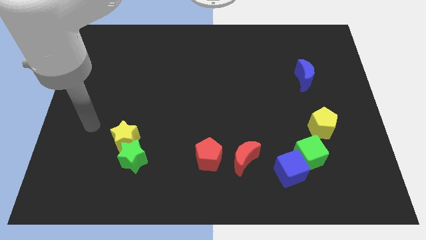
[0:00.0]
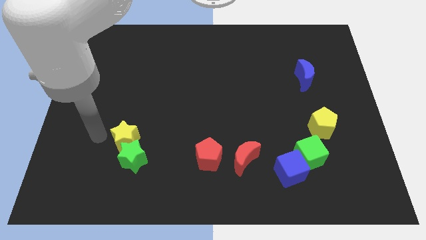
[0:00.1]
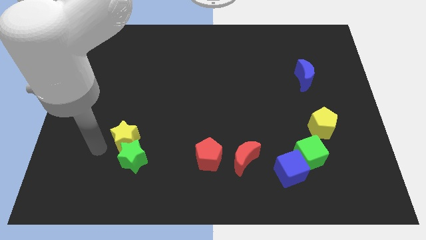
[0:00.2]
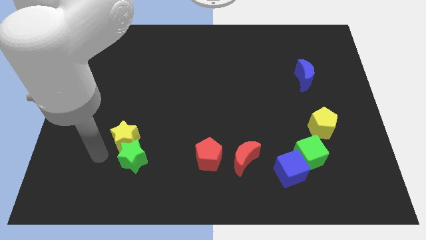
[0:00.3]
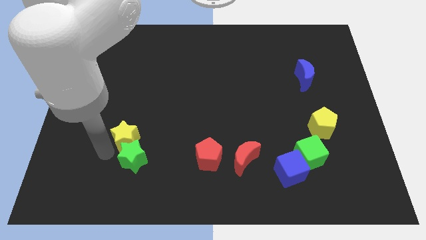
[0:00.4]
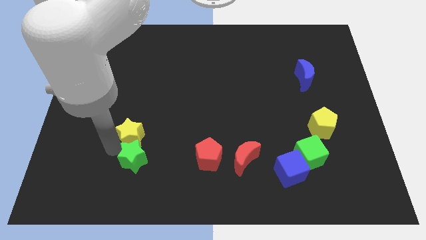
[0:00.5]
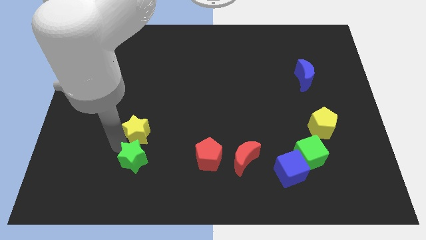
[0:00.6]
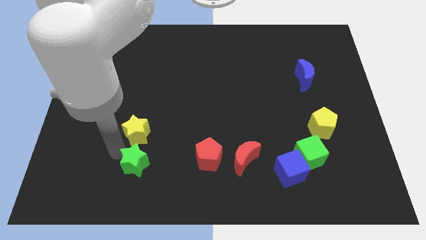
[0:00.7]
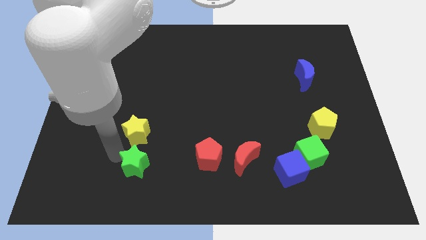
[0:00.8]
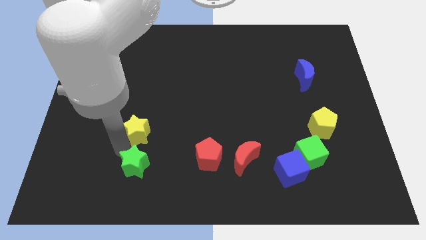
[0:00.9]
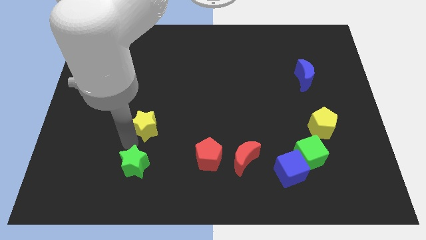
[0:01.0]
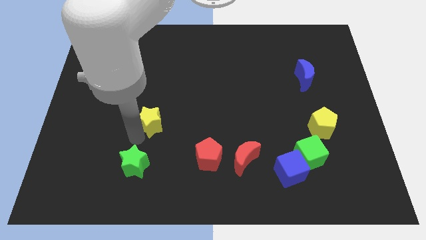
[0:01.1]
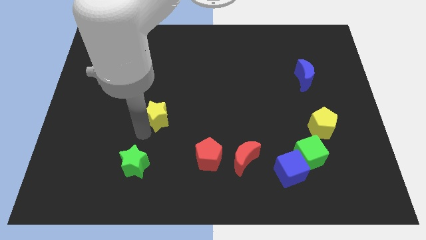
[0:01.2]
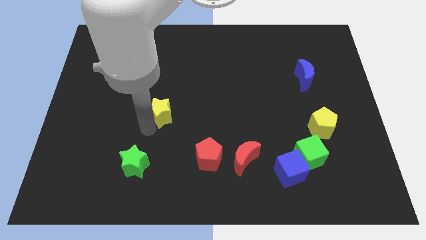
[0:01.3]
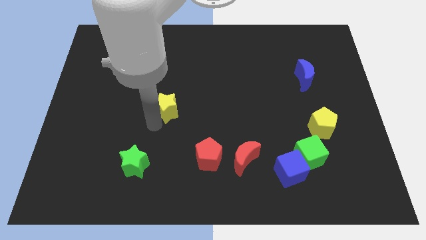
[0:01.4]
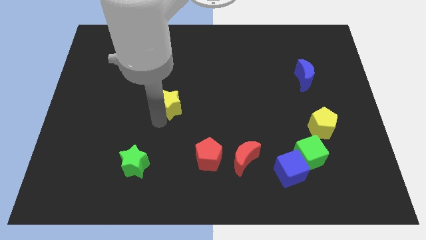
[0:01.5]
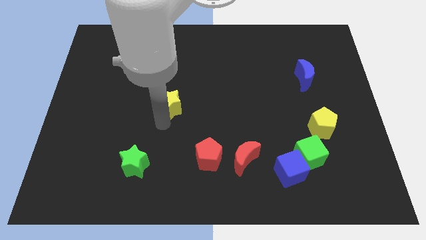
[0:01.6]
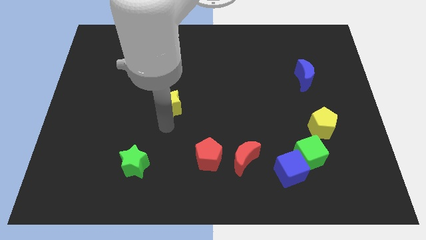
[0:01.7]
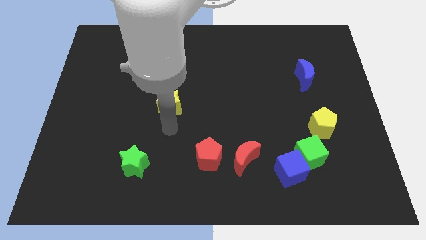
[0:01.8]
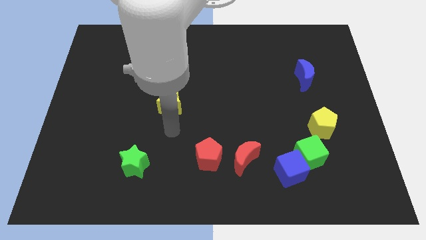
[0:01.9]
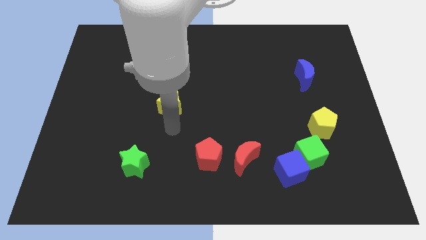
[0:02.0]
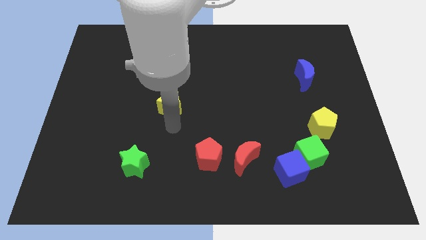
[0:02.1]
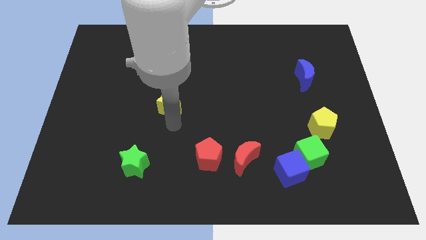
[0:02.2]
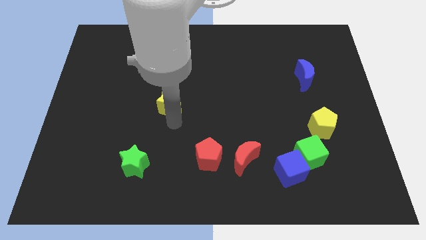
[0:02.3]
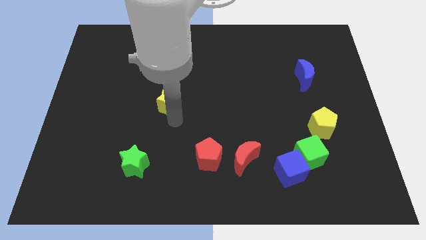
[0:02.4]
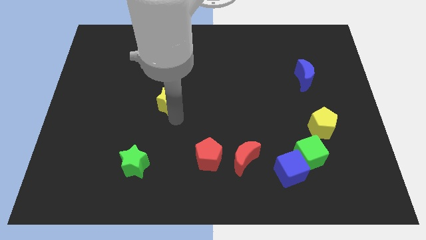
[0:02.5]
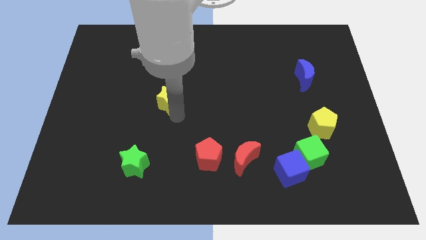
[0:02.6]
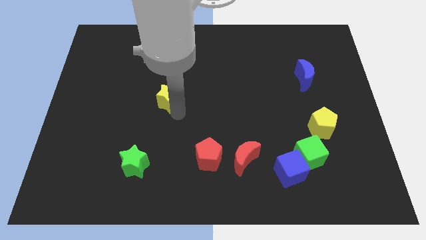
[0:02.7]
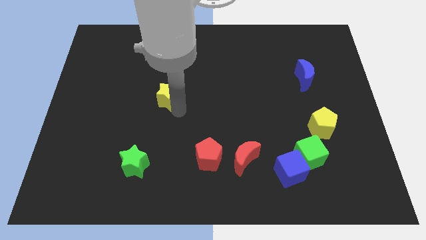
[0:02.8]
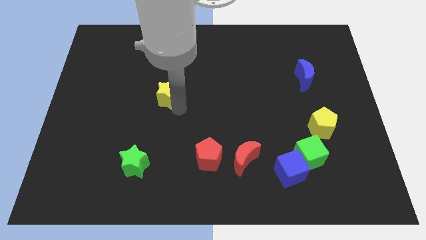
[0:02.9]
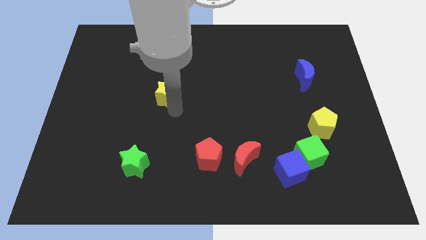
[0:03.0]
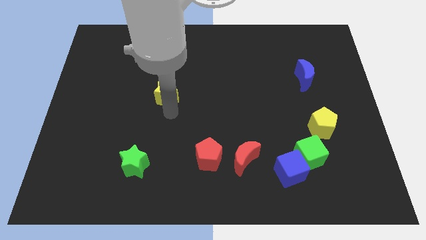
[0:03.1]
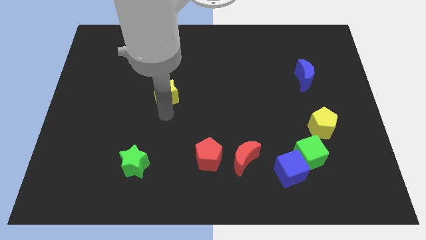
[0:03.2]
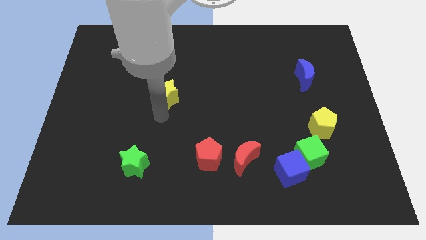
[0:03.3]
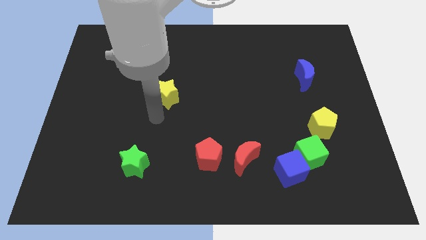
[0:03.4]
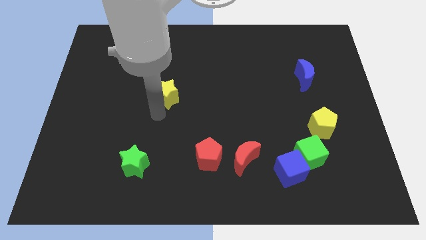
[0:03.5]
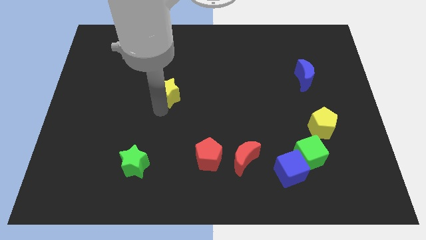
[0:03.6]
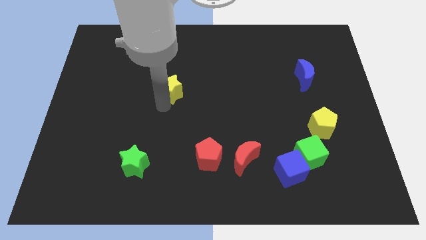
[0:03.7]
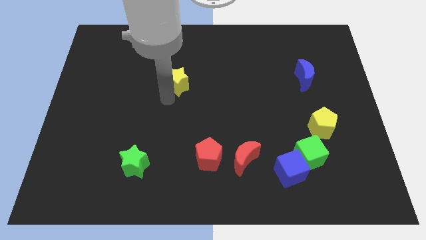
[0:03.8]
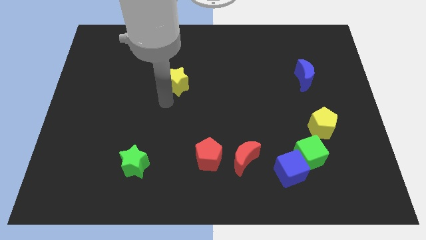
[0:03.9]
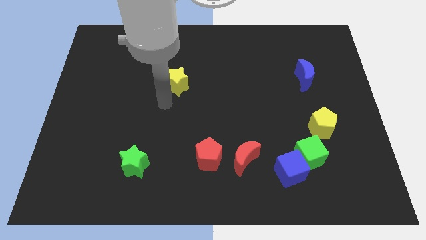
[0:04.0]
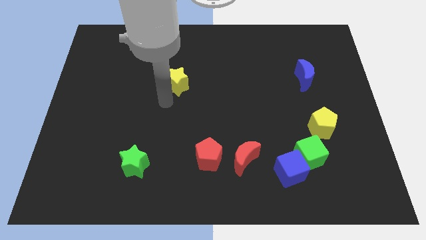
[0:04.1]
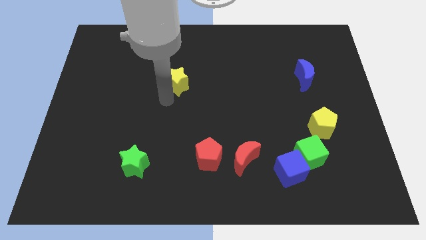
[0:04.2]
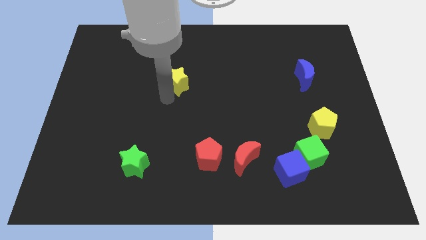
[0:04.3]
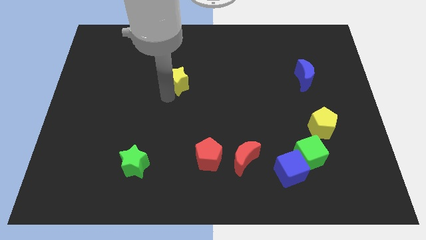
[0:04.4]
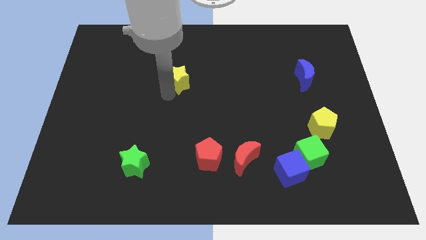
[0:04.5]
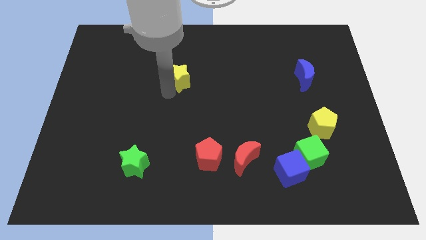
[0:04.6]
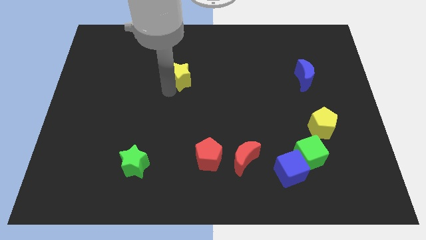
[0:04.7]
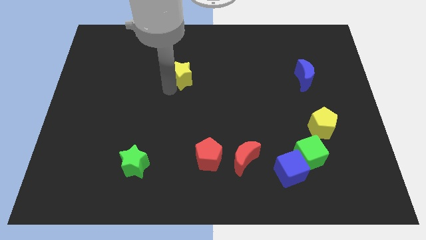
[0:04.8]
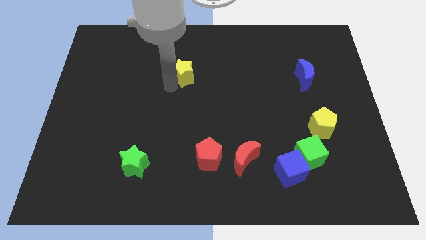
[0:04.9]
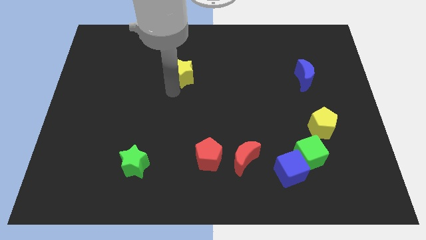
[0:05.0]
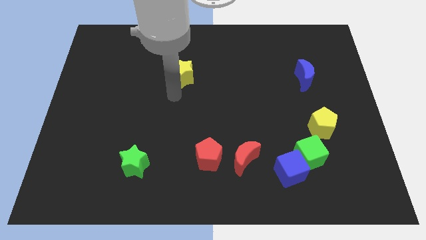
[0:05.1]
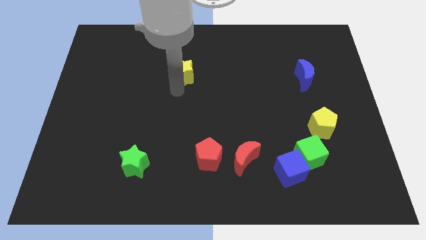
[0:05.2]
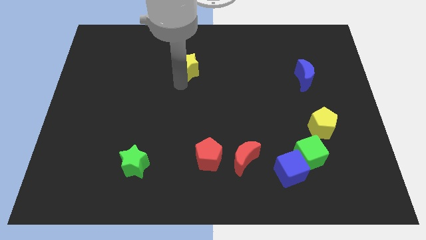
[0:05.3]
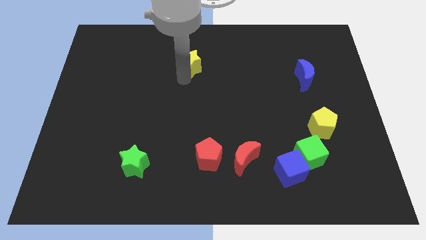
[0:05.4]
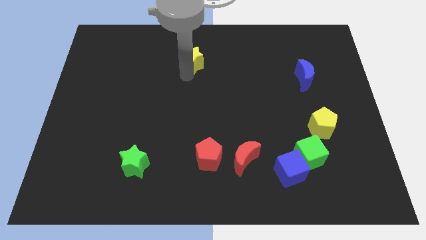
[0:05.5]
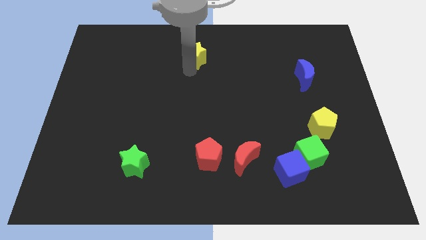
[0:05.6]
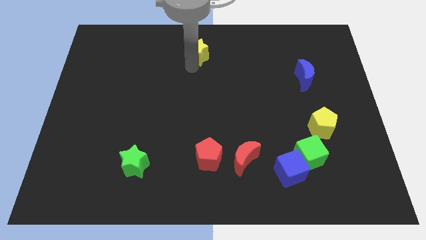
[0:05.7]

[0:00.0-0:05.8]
put the yellow star to the top side
